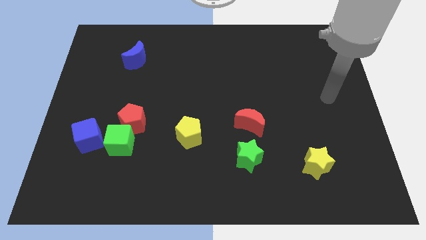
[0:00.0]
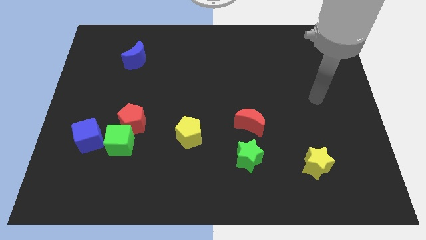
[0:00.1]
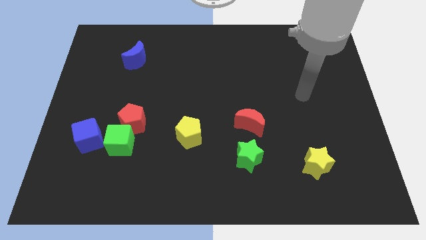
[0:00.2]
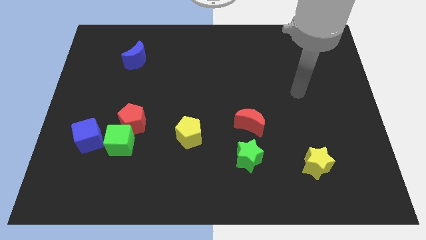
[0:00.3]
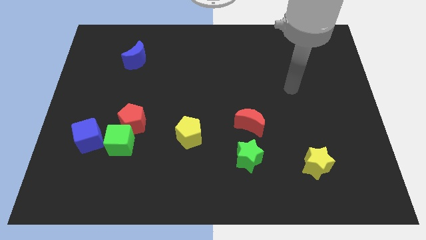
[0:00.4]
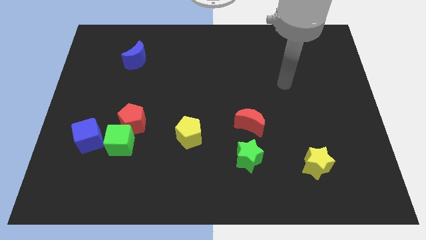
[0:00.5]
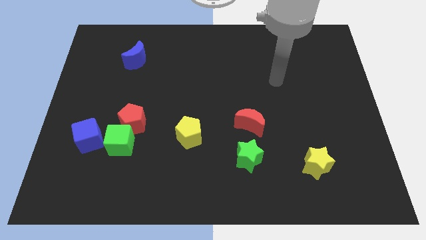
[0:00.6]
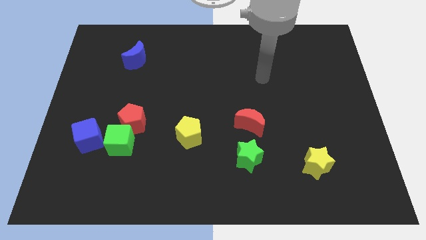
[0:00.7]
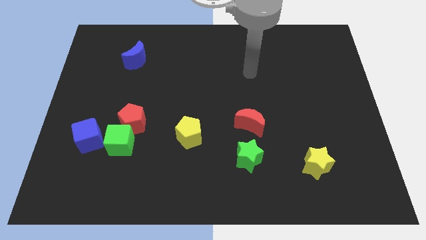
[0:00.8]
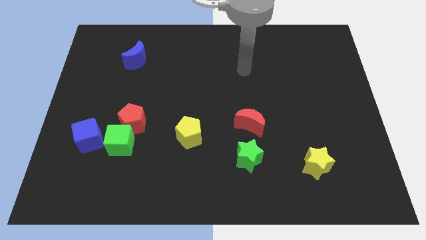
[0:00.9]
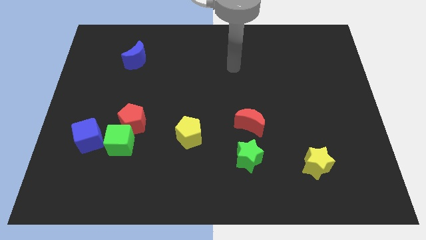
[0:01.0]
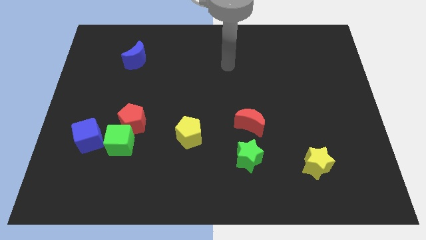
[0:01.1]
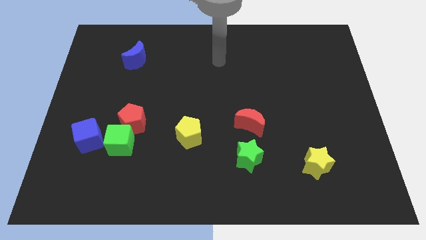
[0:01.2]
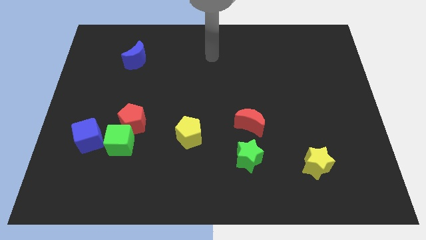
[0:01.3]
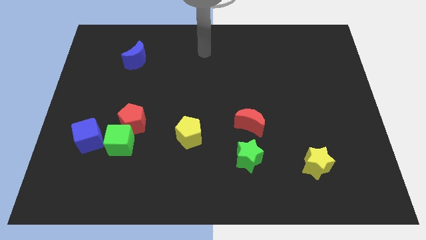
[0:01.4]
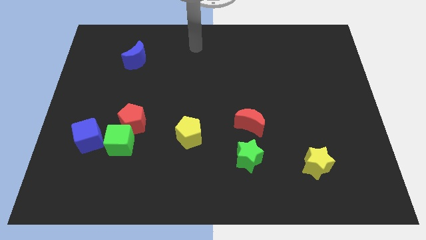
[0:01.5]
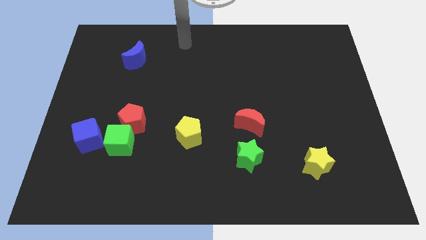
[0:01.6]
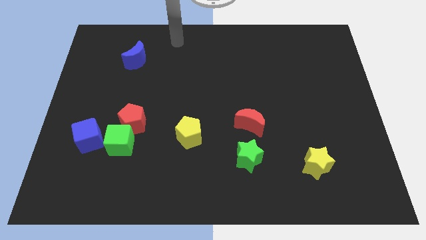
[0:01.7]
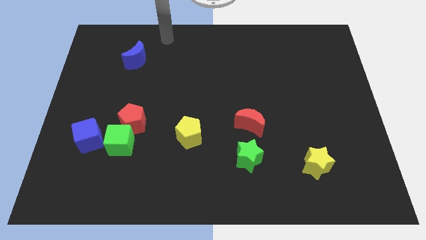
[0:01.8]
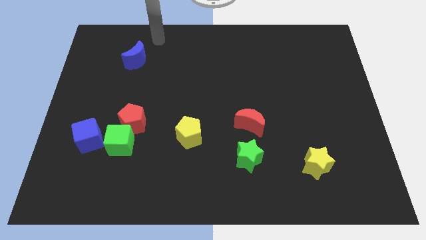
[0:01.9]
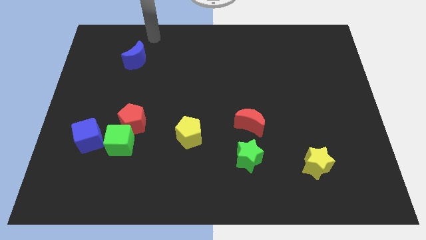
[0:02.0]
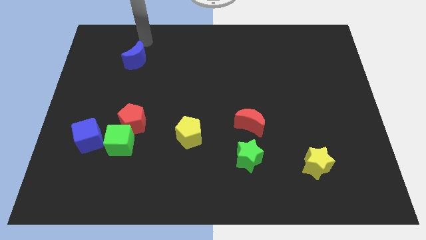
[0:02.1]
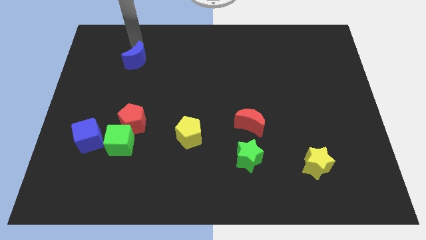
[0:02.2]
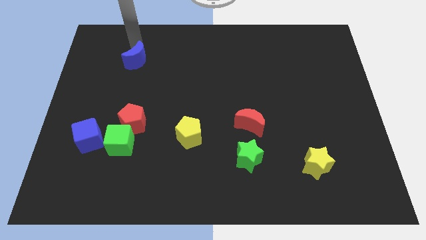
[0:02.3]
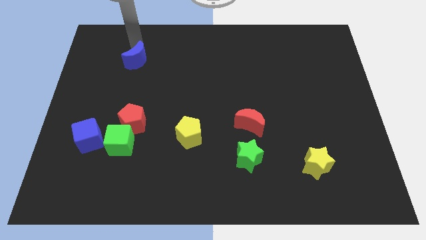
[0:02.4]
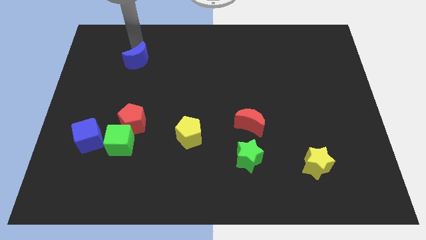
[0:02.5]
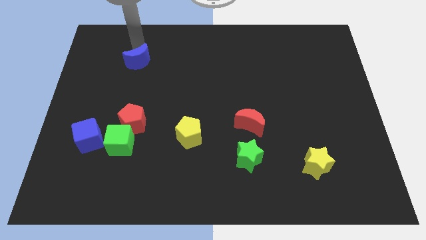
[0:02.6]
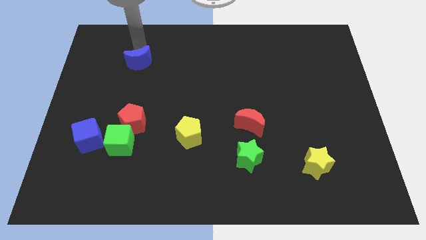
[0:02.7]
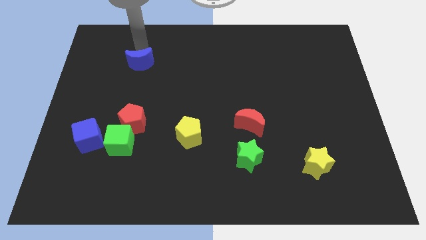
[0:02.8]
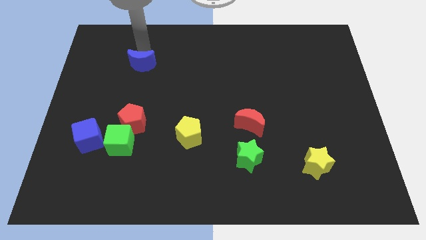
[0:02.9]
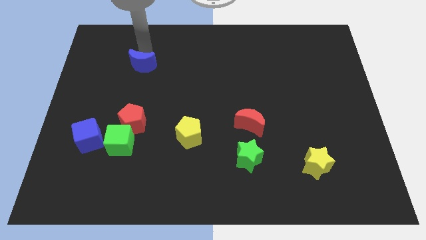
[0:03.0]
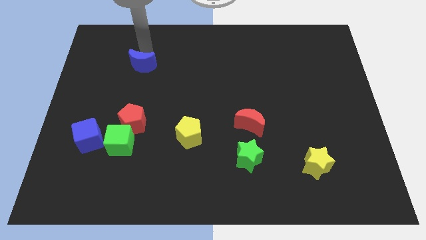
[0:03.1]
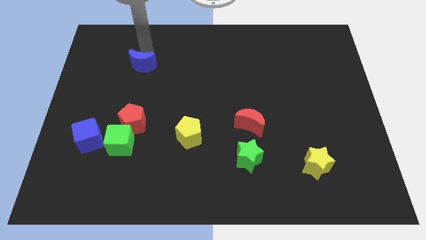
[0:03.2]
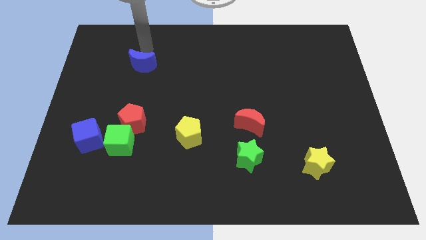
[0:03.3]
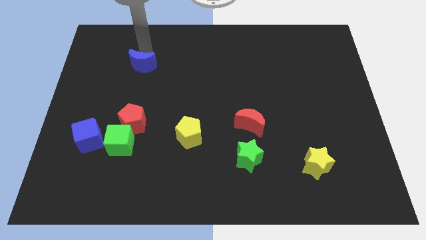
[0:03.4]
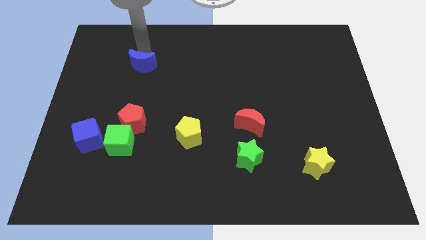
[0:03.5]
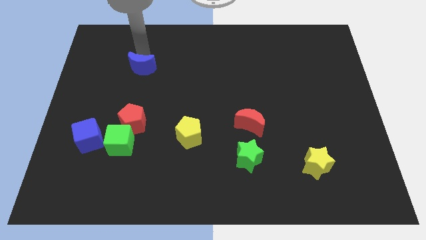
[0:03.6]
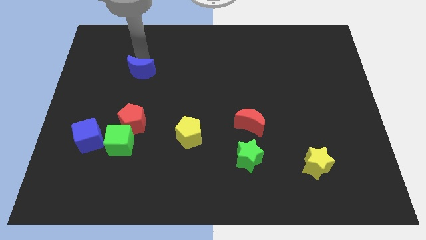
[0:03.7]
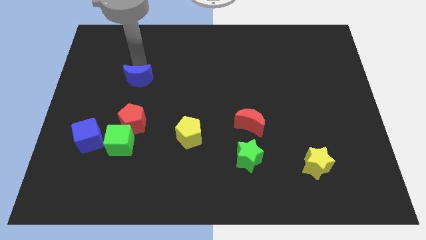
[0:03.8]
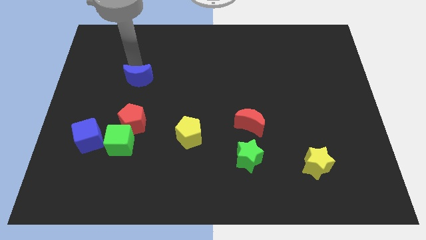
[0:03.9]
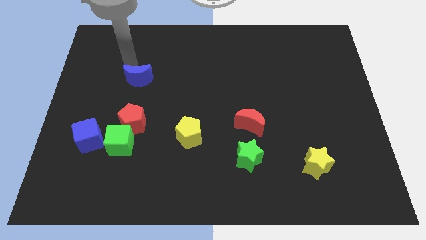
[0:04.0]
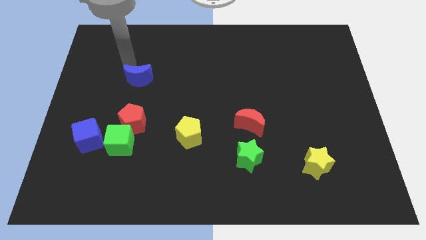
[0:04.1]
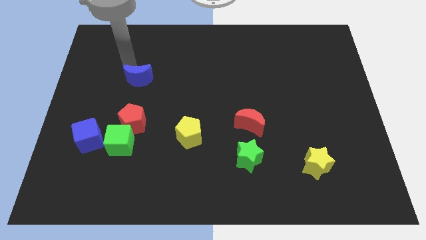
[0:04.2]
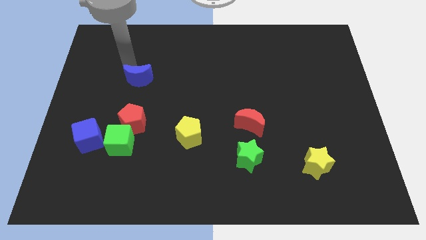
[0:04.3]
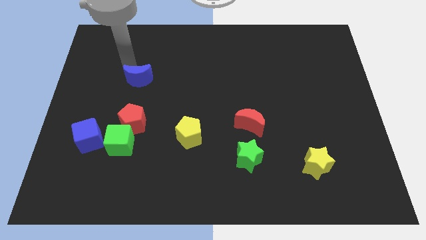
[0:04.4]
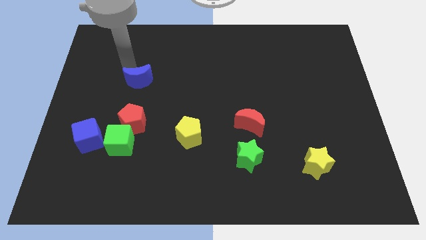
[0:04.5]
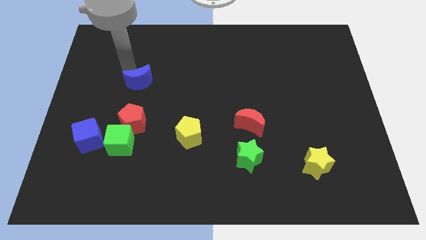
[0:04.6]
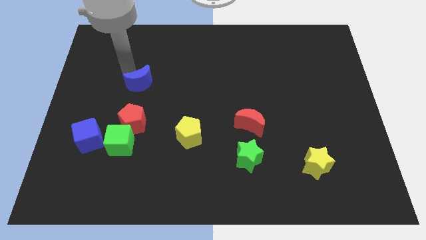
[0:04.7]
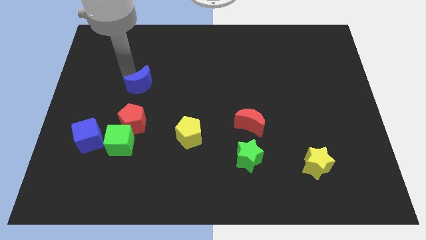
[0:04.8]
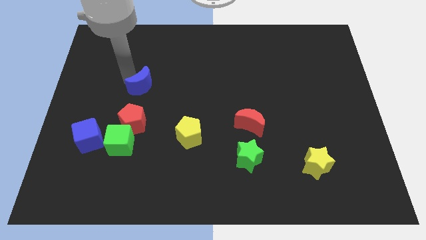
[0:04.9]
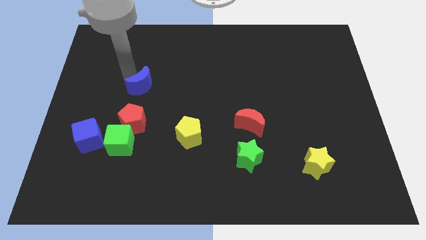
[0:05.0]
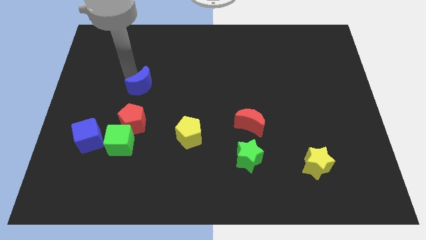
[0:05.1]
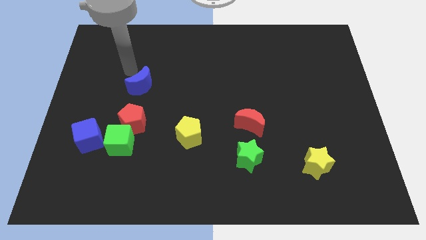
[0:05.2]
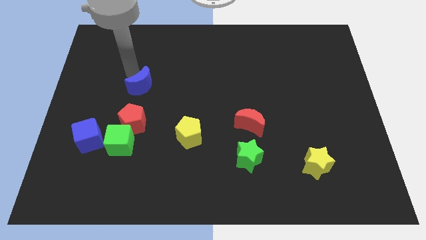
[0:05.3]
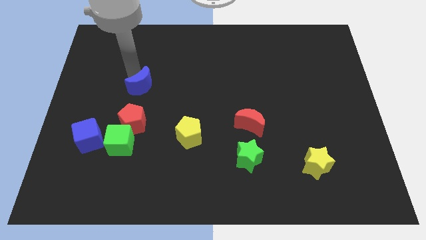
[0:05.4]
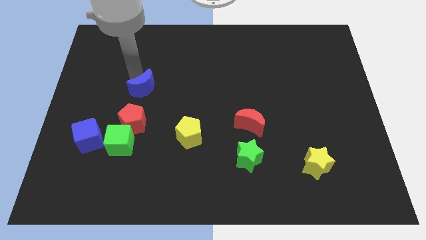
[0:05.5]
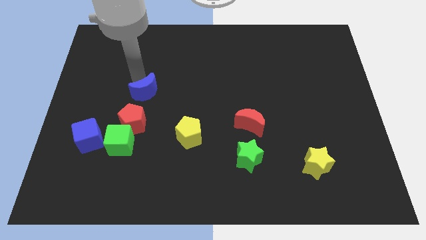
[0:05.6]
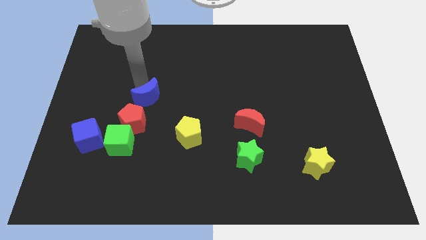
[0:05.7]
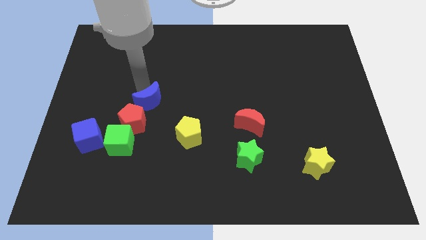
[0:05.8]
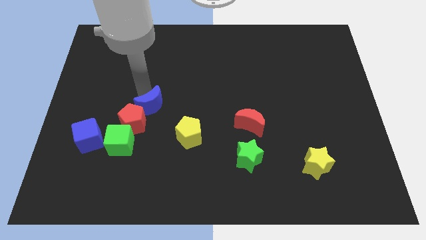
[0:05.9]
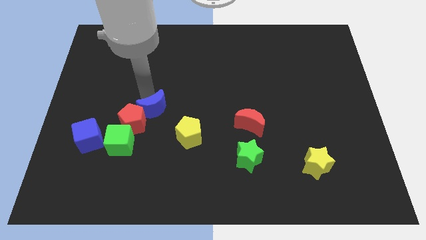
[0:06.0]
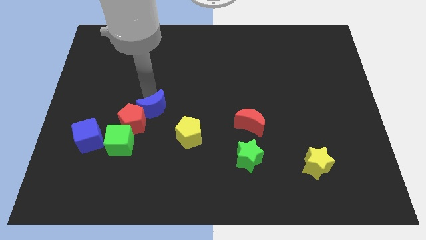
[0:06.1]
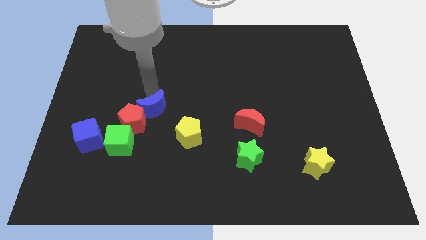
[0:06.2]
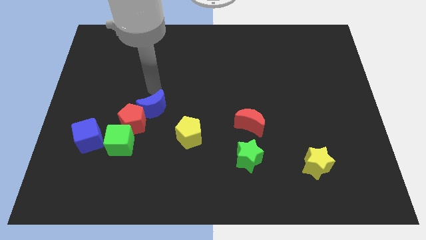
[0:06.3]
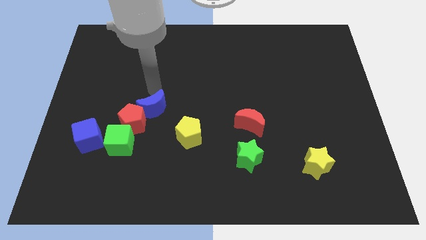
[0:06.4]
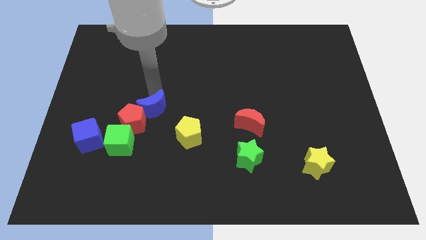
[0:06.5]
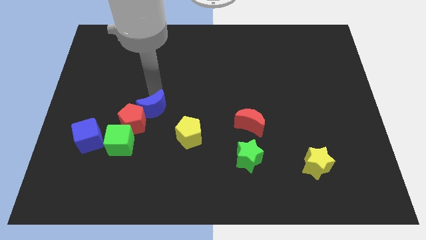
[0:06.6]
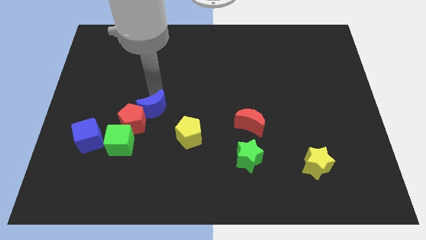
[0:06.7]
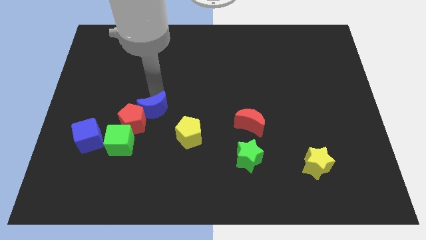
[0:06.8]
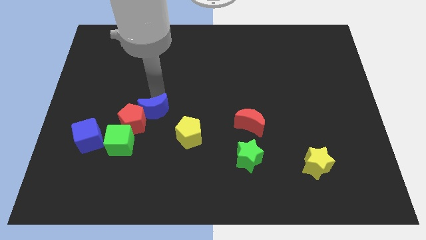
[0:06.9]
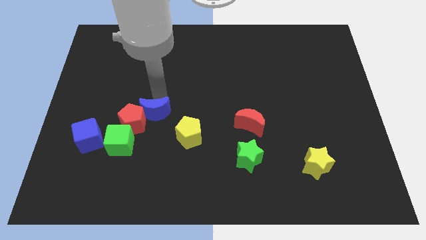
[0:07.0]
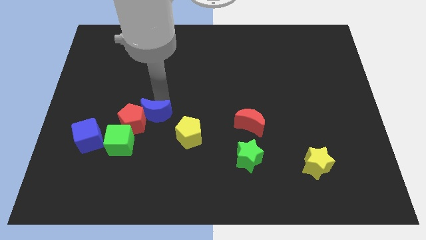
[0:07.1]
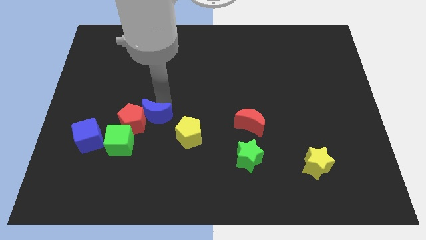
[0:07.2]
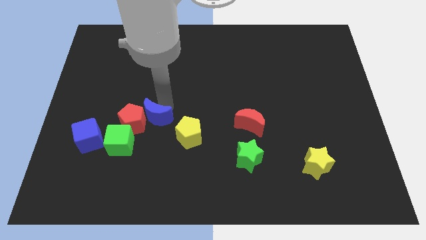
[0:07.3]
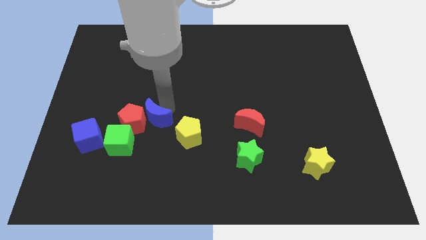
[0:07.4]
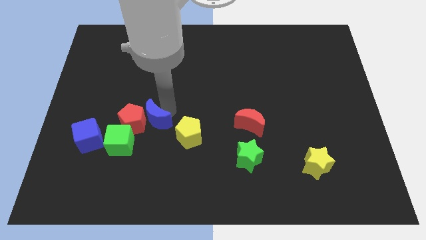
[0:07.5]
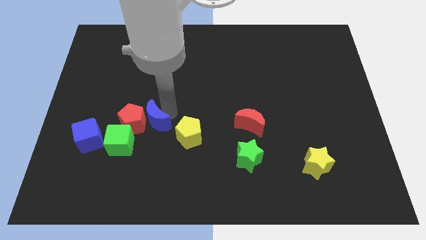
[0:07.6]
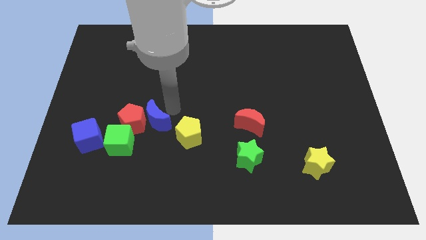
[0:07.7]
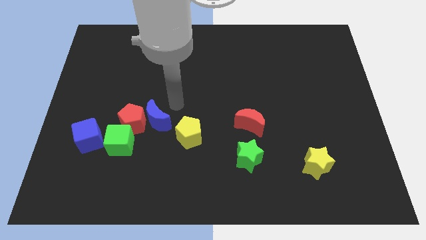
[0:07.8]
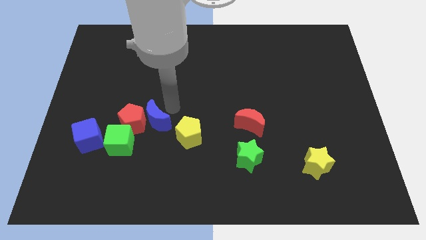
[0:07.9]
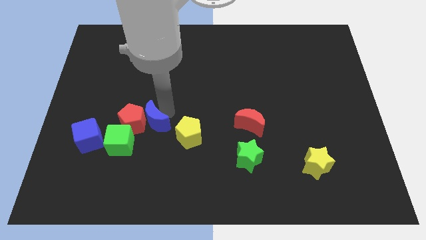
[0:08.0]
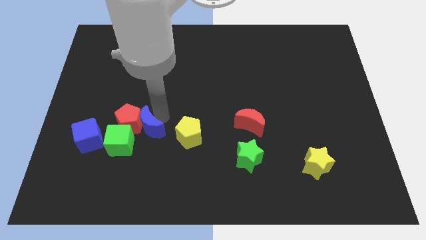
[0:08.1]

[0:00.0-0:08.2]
put the blue moon to the right of the blue cube
